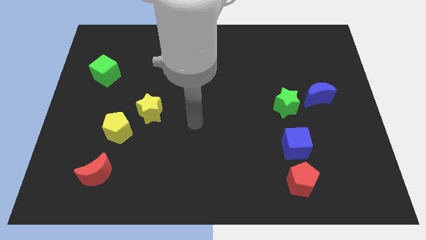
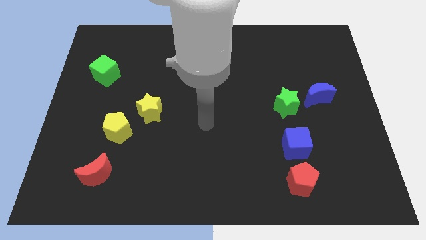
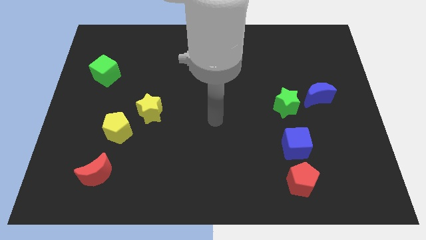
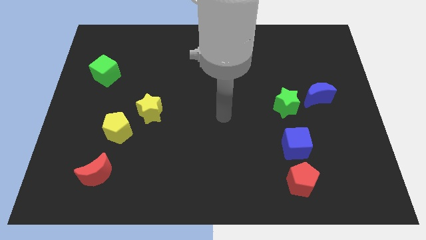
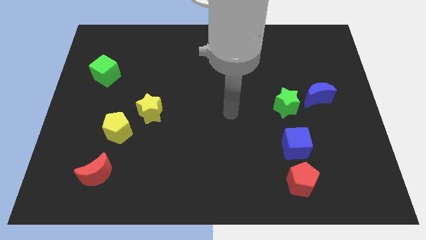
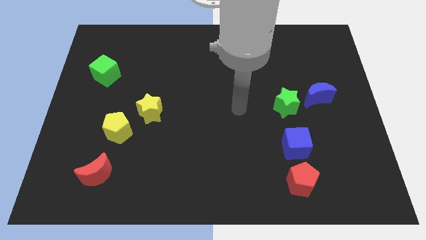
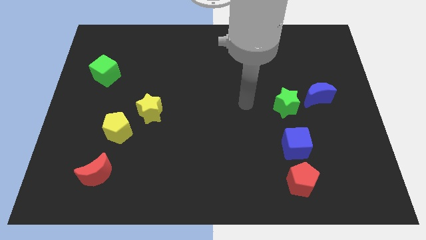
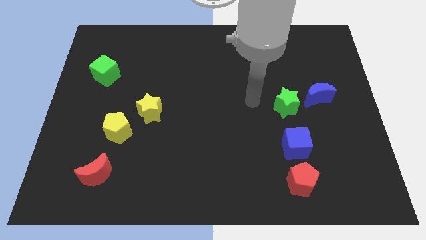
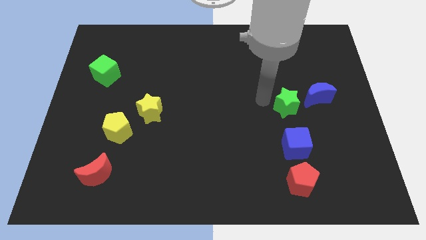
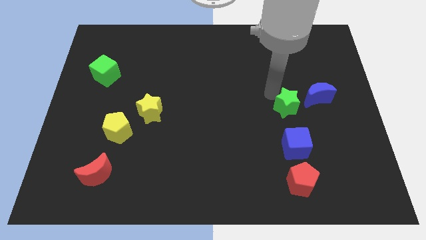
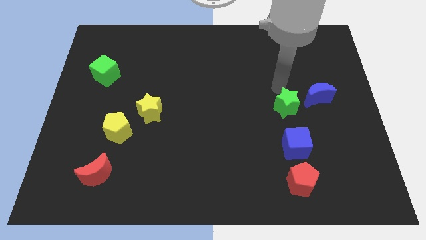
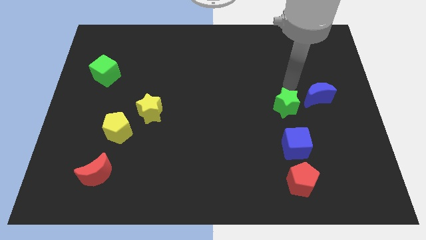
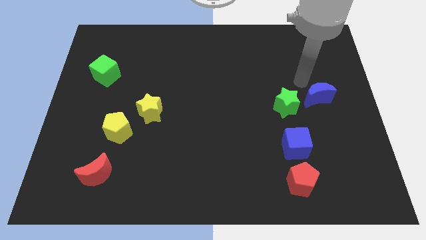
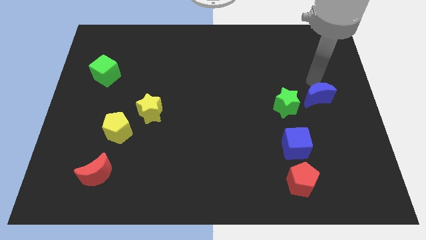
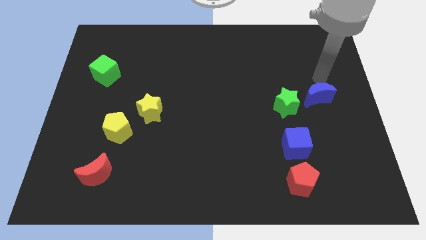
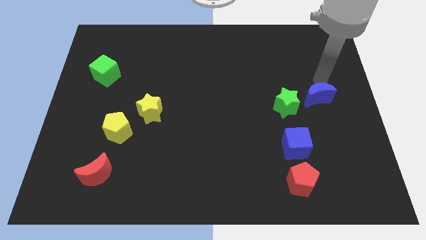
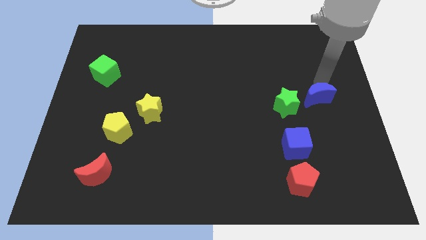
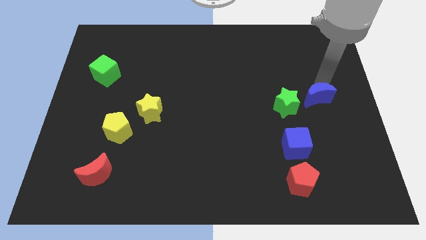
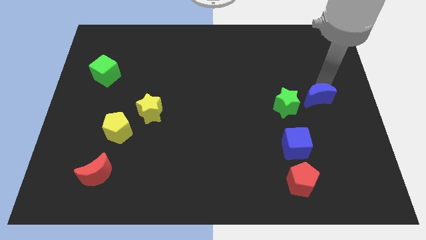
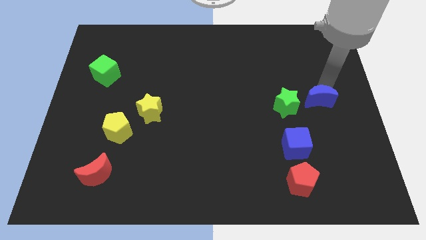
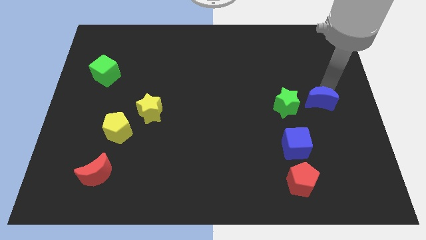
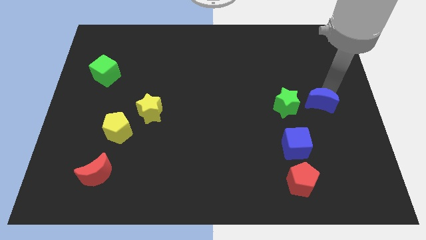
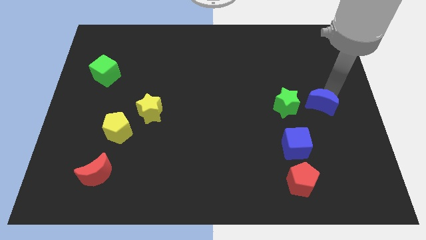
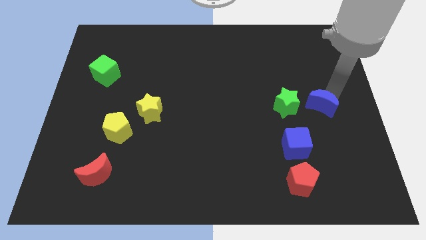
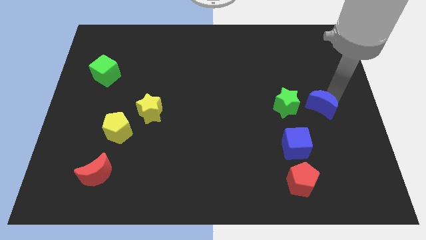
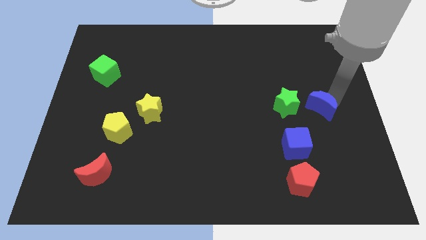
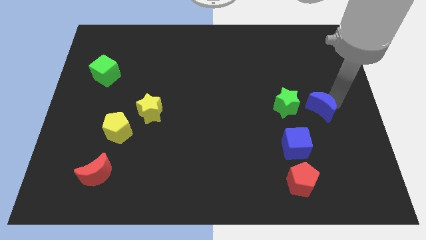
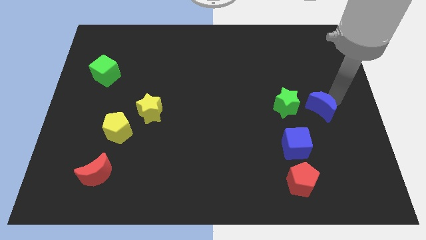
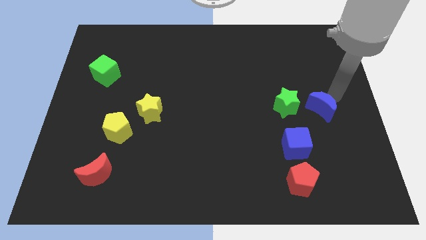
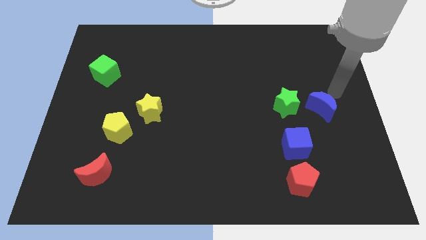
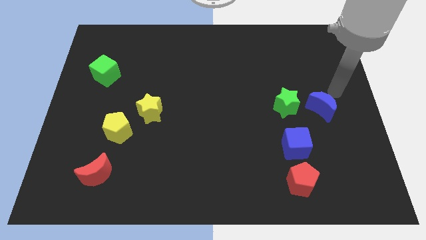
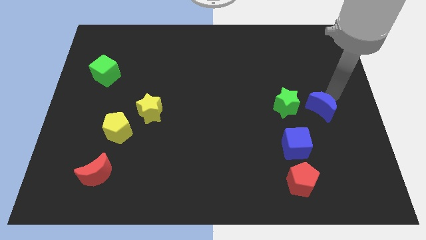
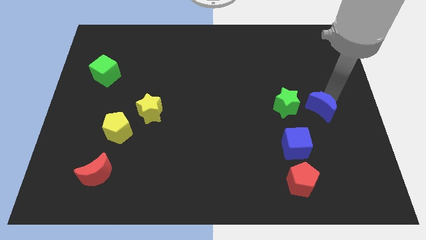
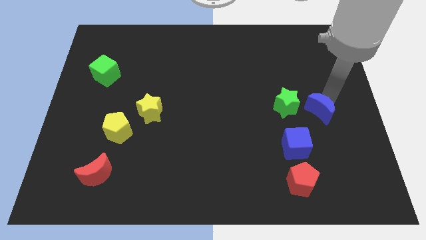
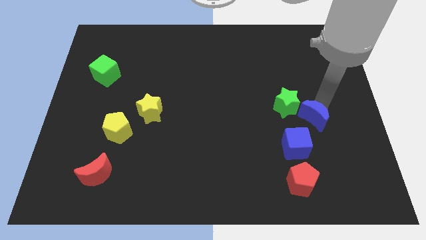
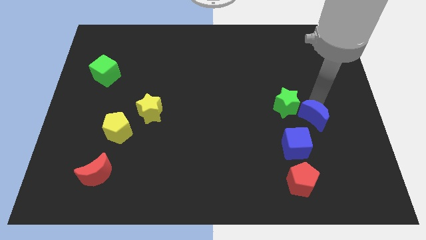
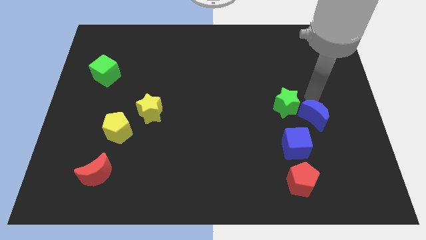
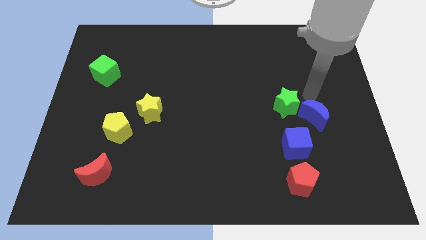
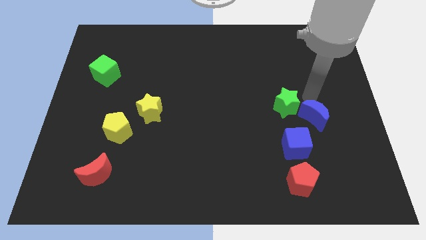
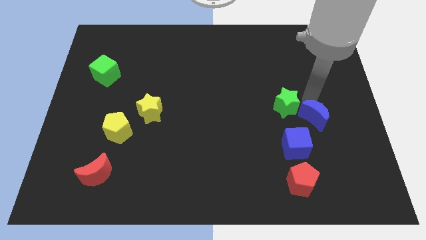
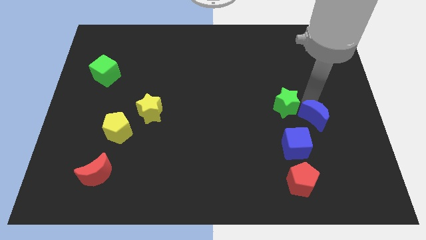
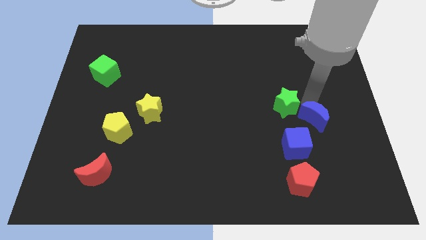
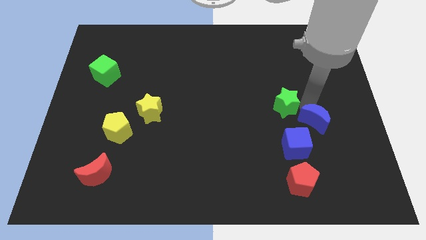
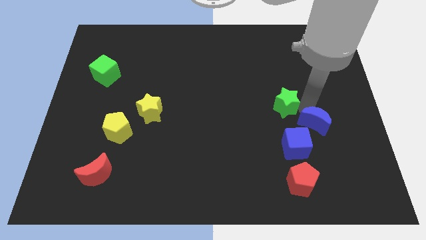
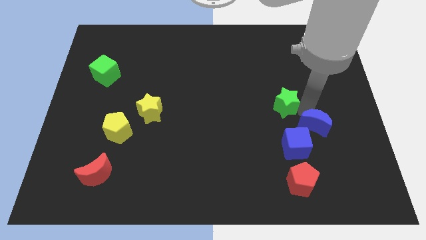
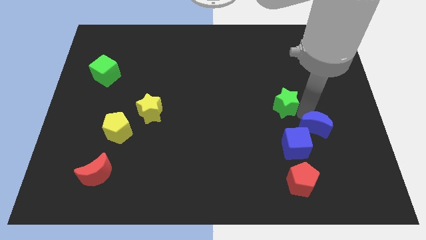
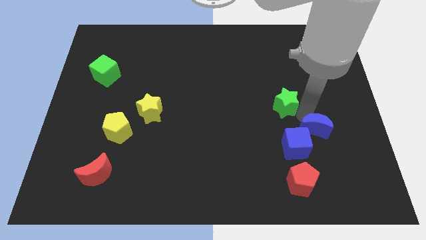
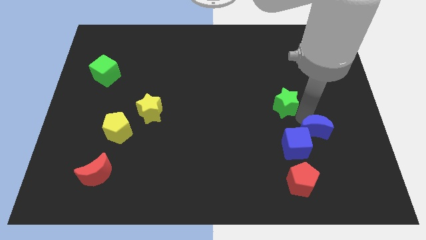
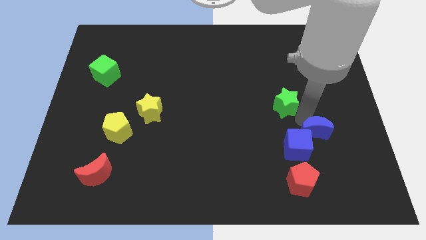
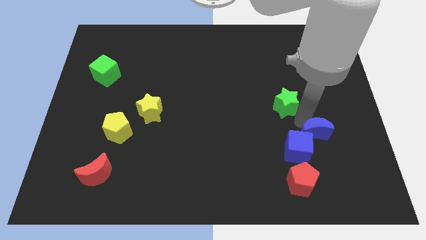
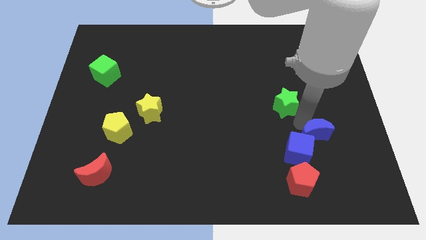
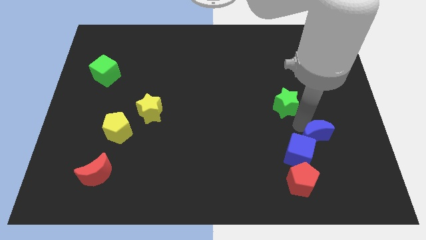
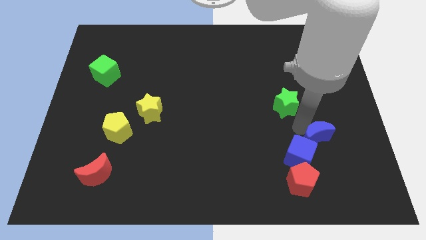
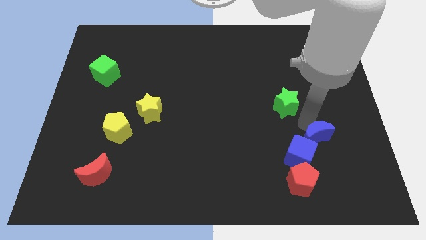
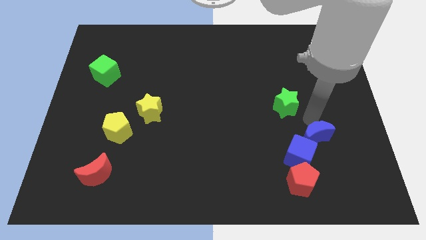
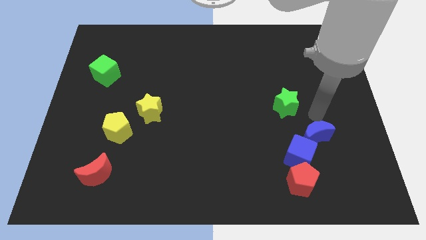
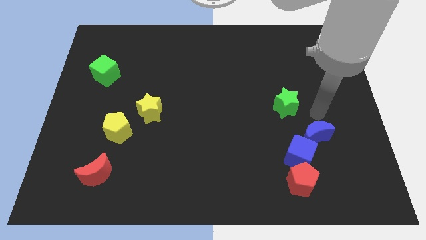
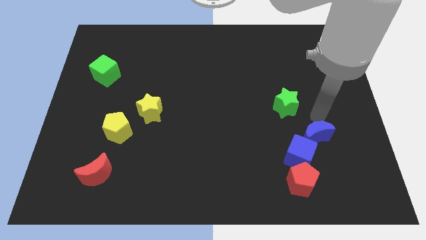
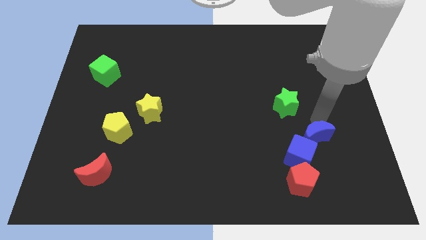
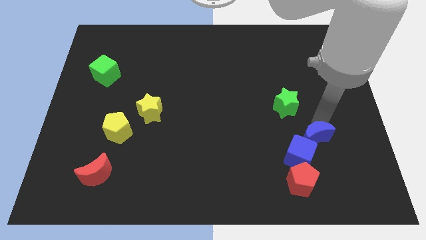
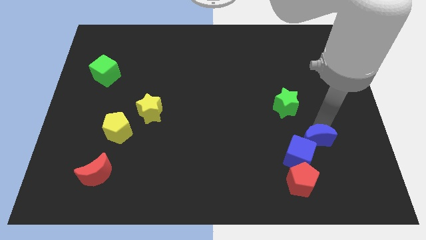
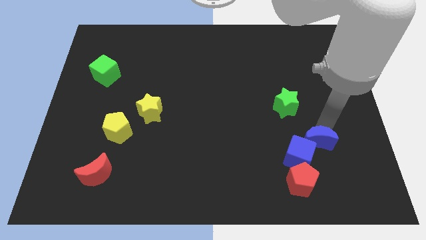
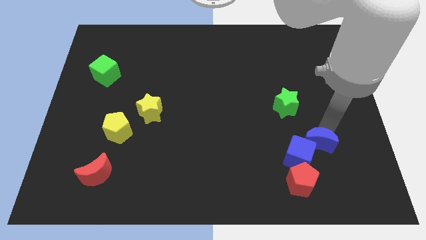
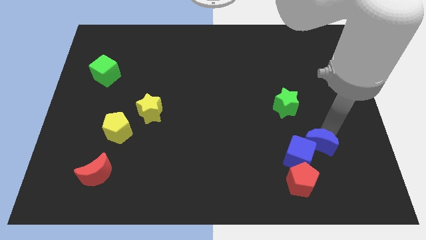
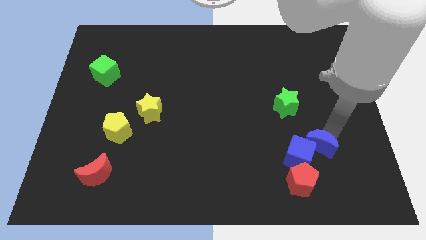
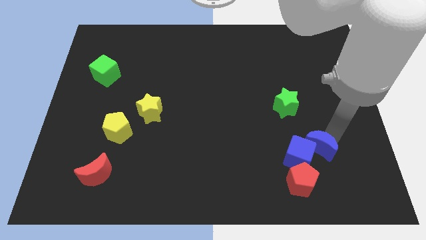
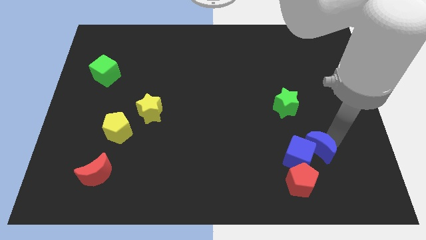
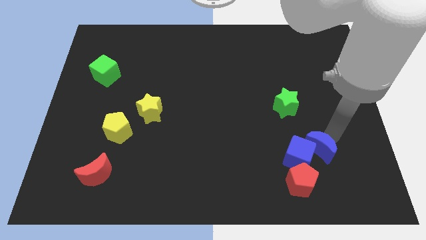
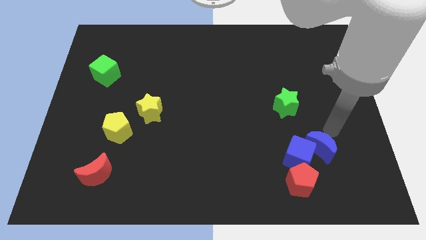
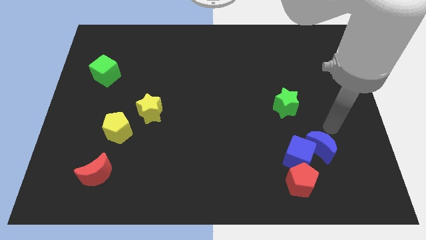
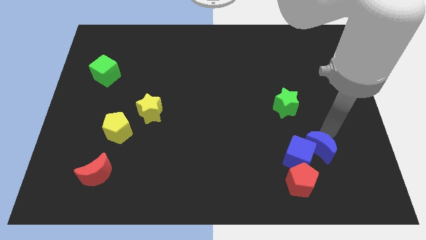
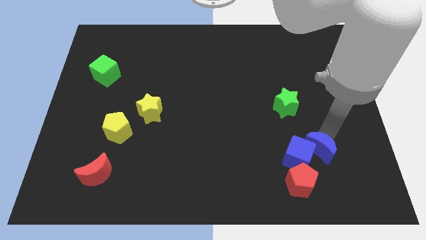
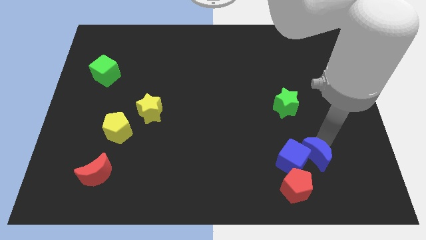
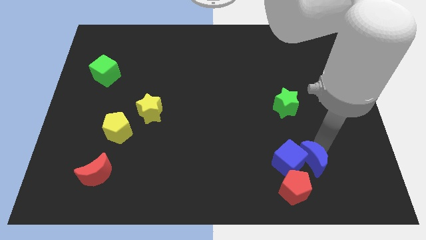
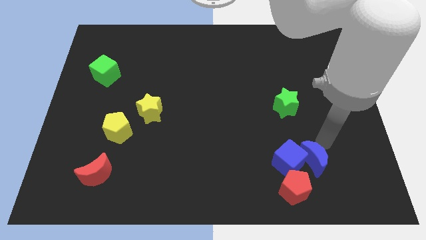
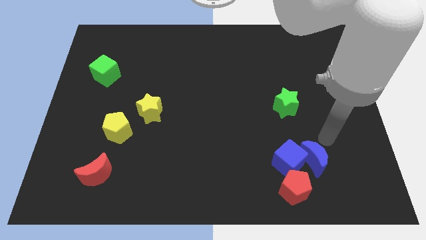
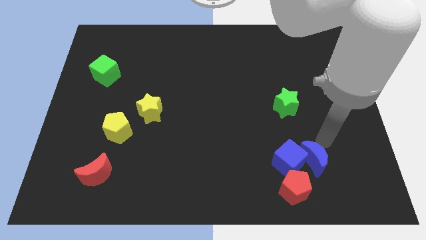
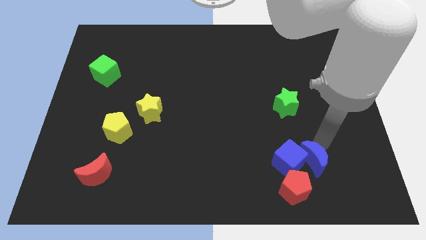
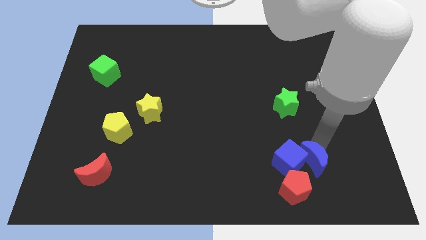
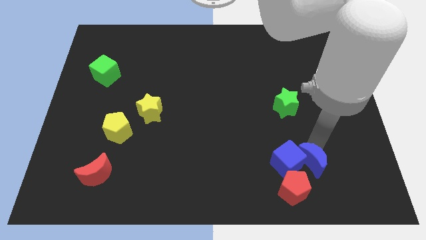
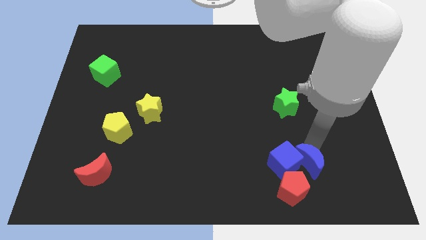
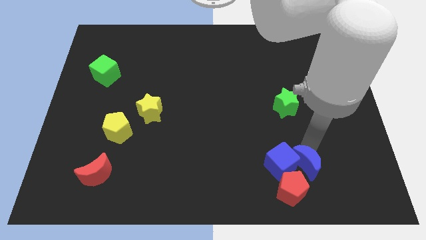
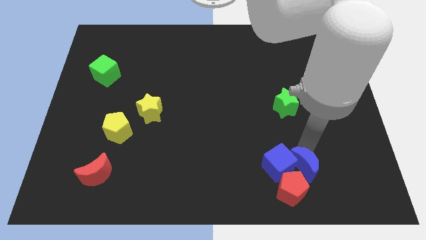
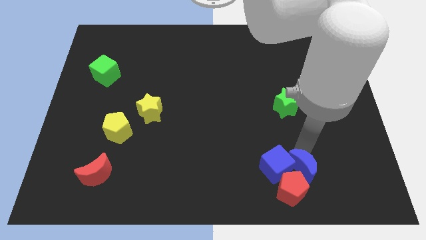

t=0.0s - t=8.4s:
slide the blue moon to the red pentagon
